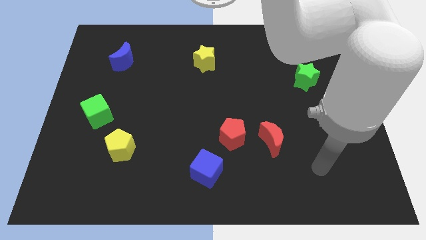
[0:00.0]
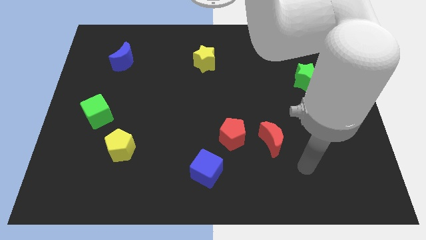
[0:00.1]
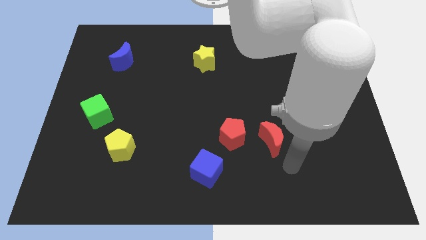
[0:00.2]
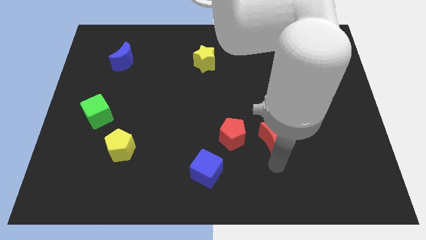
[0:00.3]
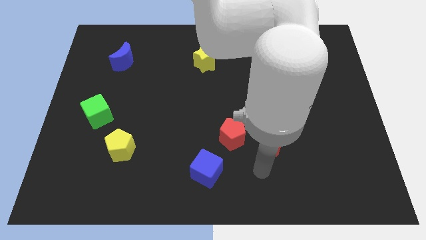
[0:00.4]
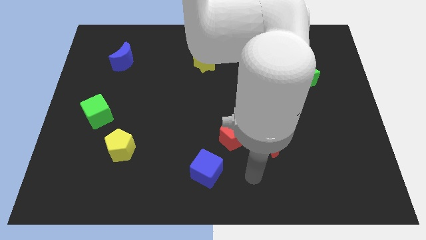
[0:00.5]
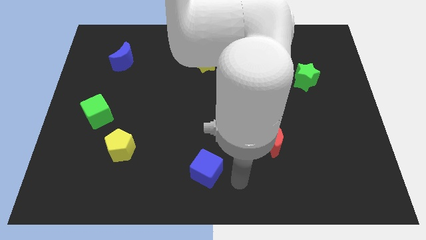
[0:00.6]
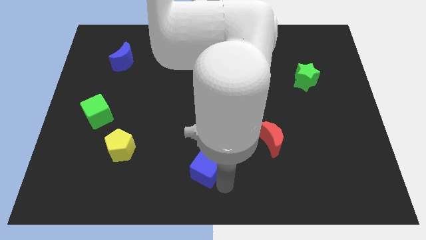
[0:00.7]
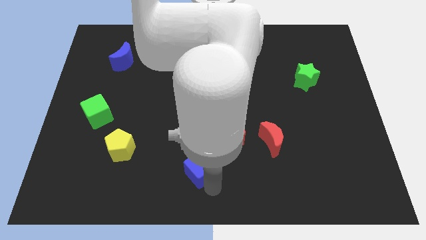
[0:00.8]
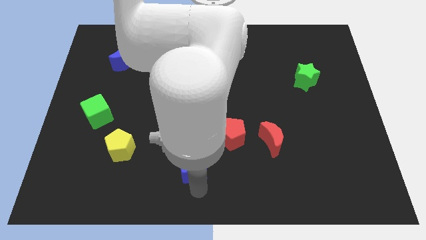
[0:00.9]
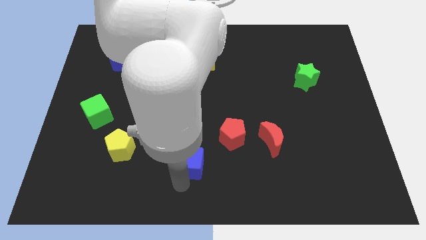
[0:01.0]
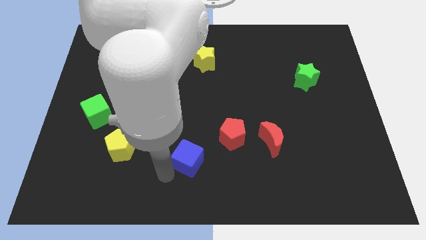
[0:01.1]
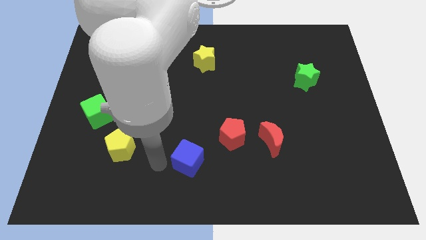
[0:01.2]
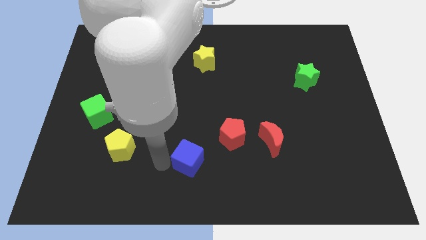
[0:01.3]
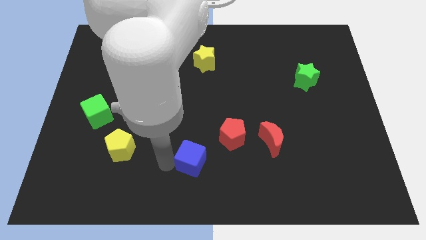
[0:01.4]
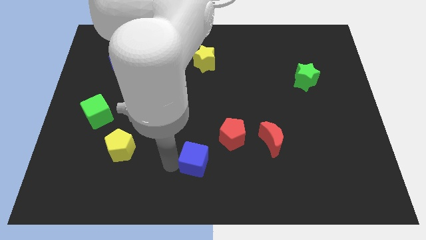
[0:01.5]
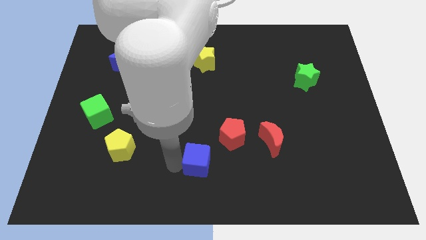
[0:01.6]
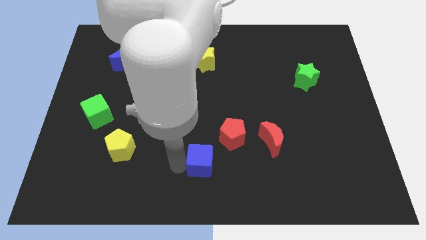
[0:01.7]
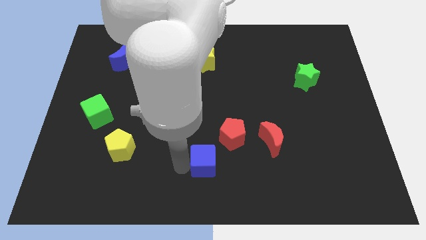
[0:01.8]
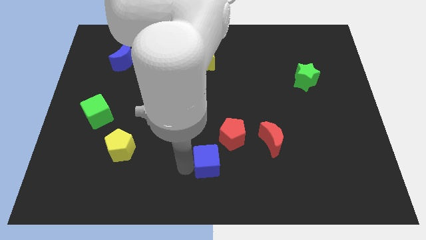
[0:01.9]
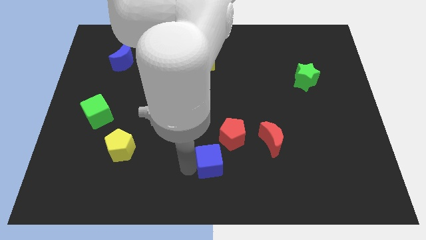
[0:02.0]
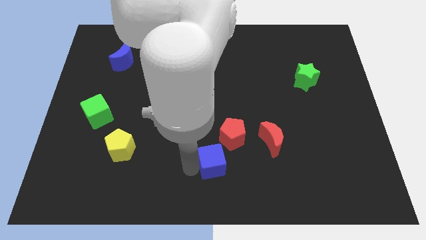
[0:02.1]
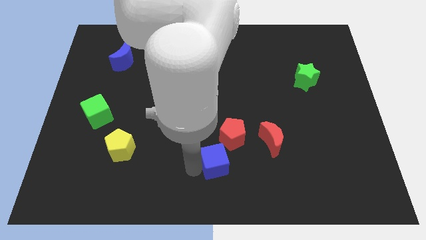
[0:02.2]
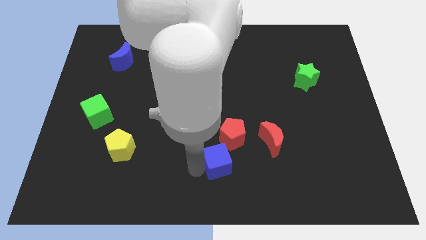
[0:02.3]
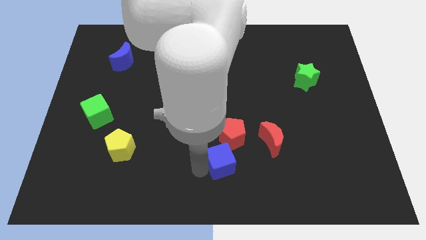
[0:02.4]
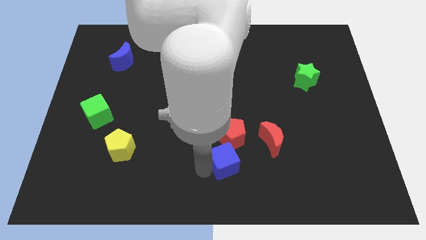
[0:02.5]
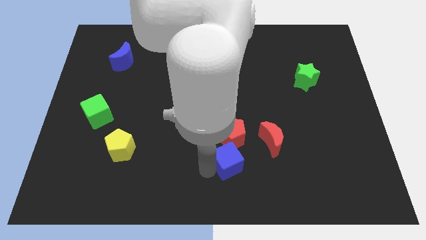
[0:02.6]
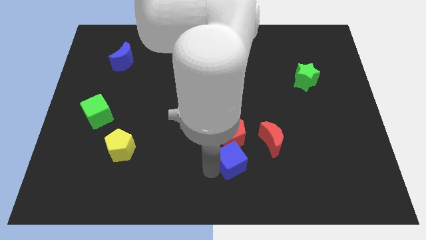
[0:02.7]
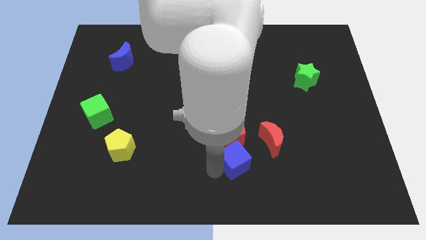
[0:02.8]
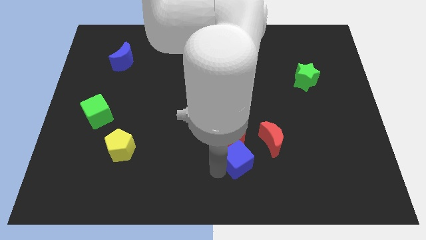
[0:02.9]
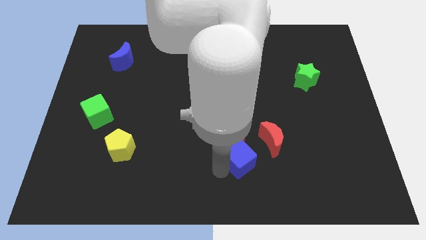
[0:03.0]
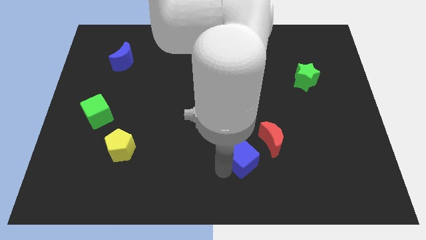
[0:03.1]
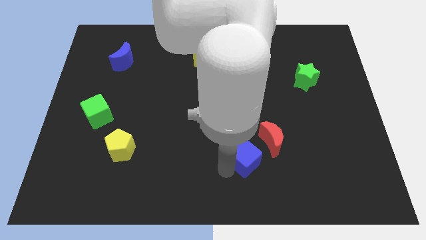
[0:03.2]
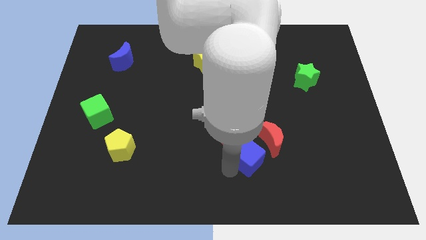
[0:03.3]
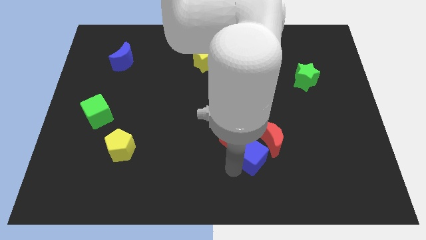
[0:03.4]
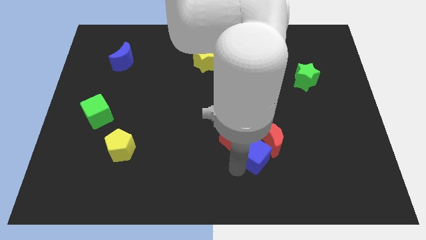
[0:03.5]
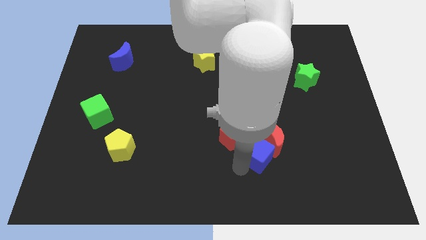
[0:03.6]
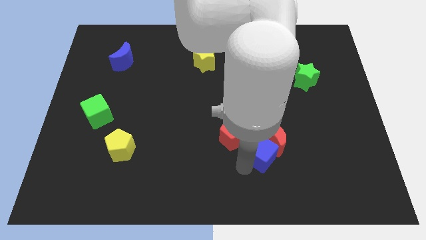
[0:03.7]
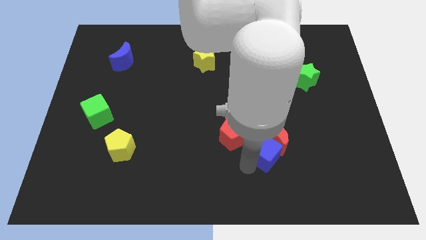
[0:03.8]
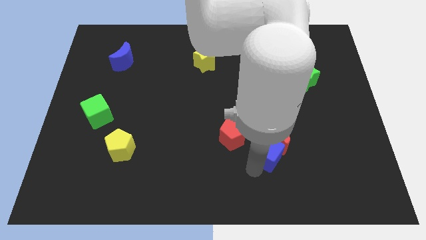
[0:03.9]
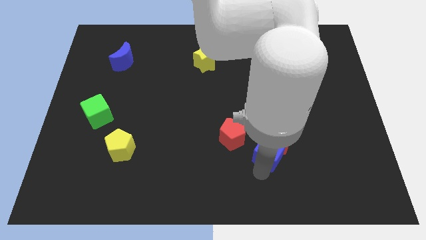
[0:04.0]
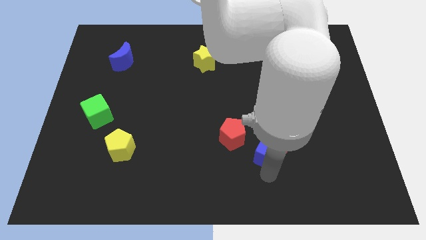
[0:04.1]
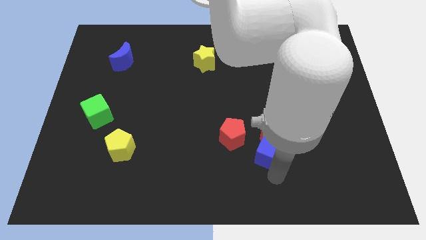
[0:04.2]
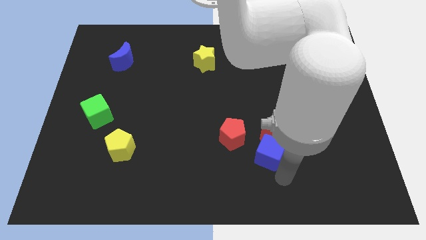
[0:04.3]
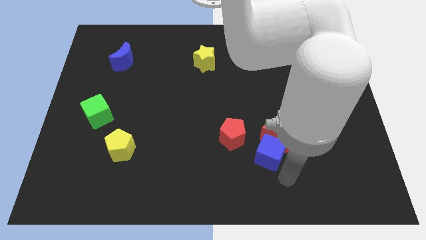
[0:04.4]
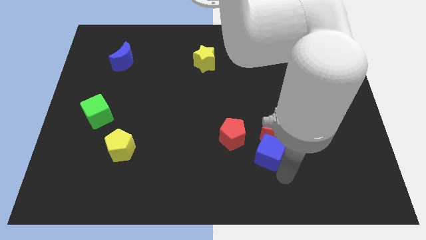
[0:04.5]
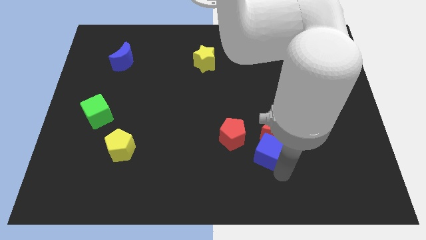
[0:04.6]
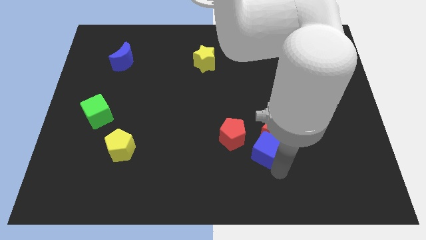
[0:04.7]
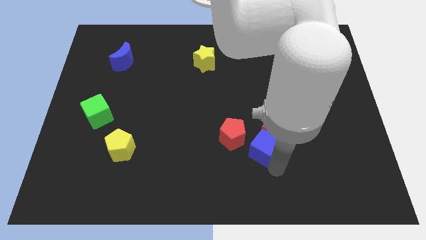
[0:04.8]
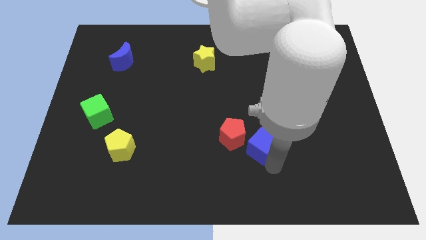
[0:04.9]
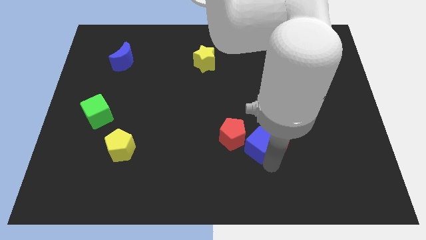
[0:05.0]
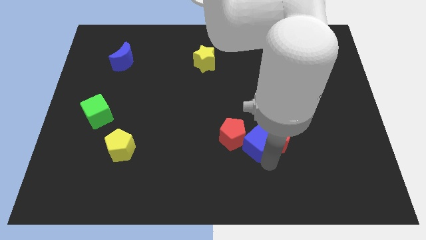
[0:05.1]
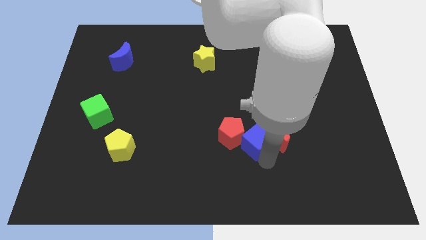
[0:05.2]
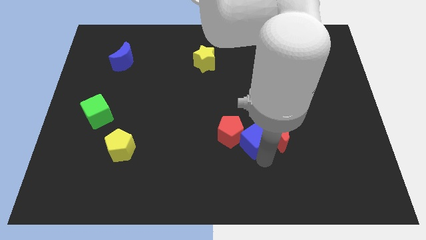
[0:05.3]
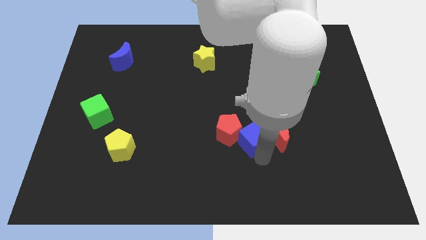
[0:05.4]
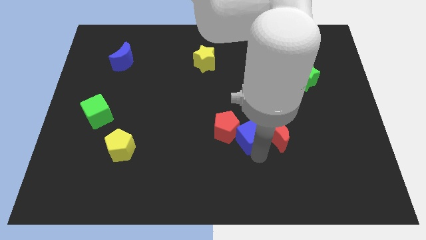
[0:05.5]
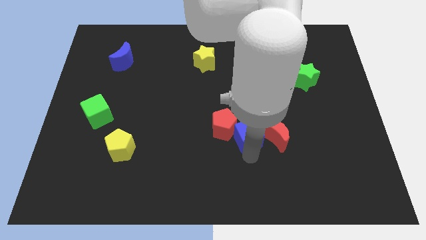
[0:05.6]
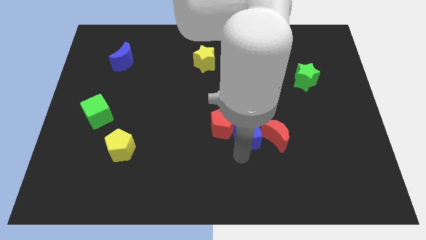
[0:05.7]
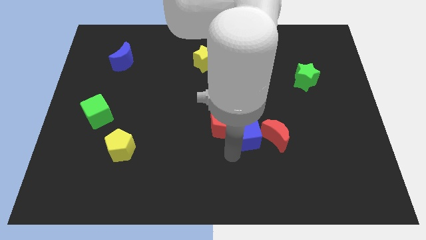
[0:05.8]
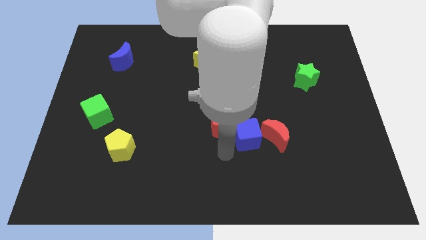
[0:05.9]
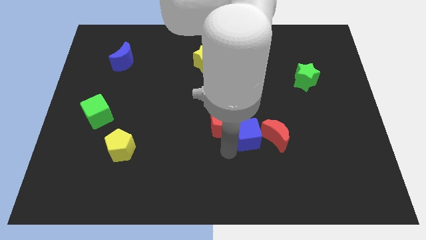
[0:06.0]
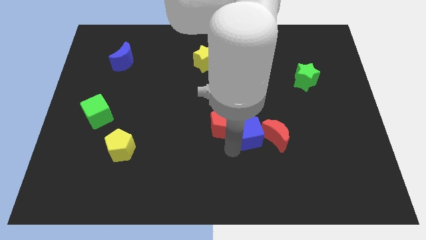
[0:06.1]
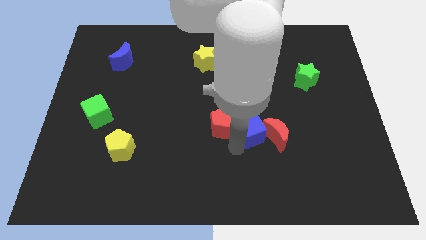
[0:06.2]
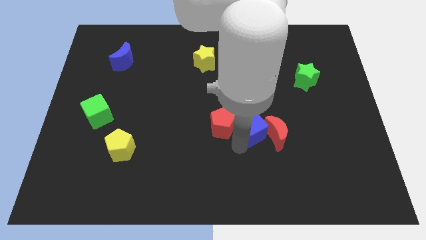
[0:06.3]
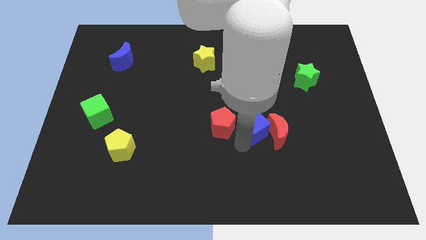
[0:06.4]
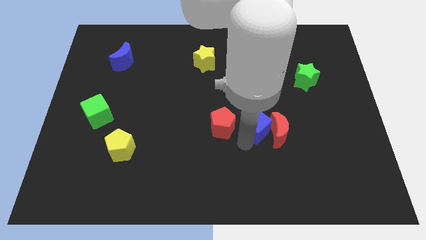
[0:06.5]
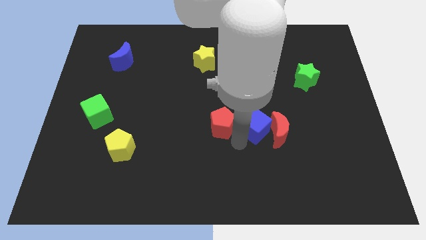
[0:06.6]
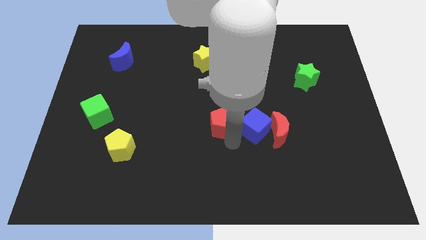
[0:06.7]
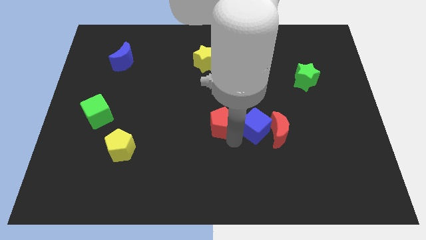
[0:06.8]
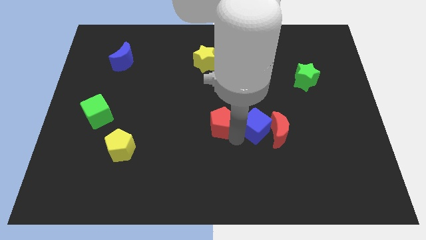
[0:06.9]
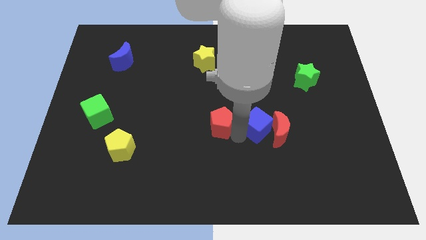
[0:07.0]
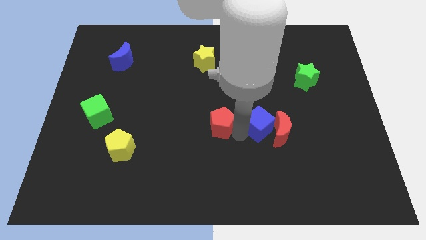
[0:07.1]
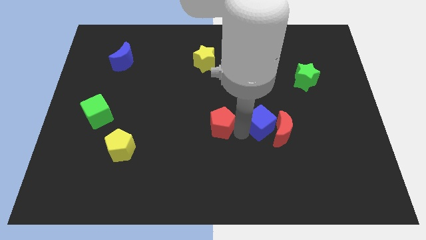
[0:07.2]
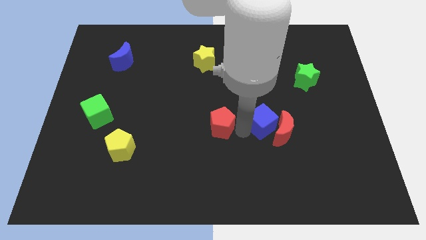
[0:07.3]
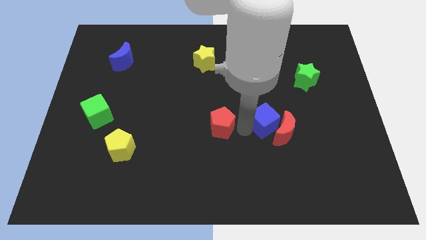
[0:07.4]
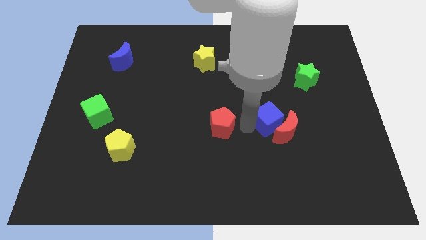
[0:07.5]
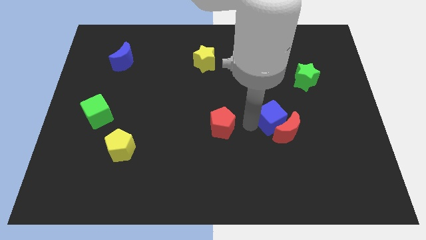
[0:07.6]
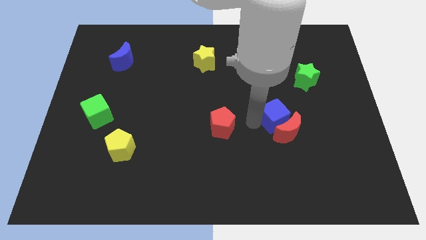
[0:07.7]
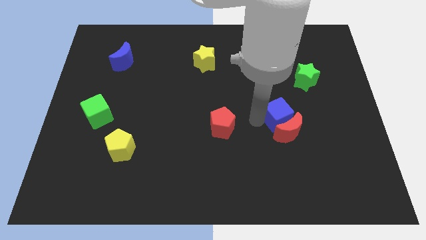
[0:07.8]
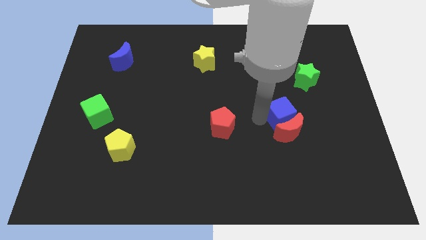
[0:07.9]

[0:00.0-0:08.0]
push the blue cube to the top right of the red moon
